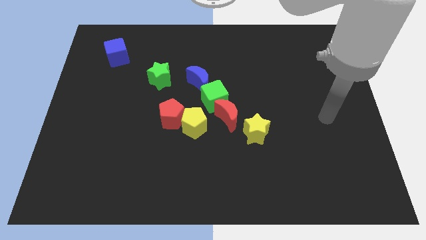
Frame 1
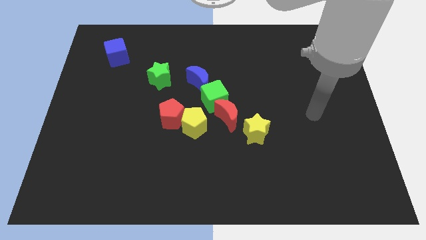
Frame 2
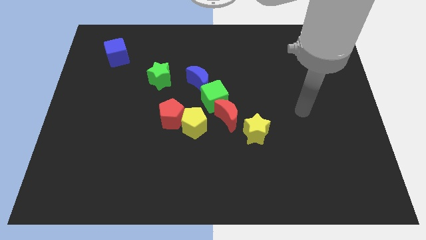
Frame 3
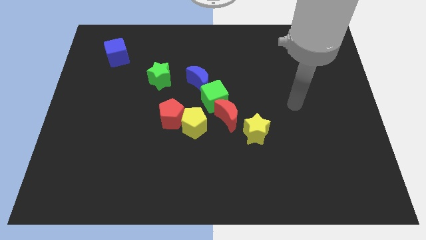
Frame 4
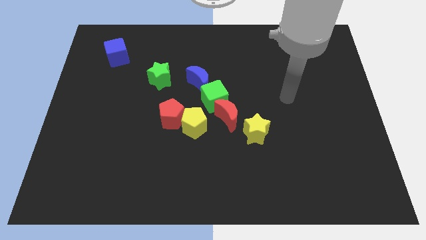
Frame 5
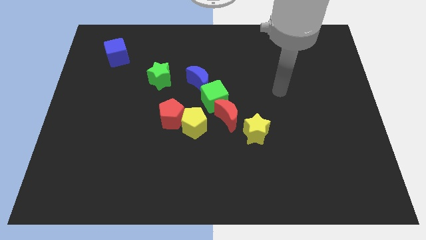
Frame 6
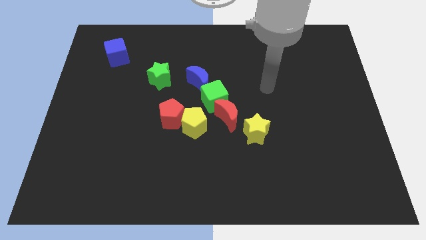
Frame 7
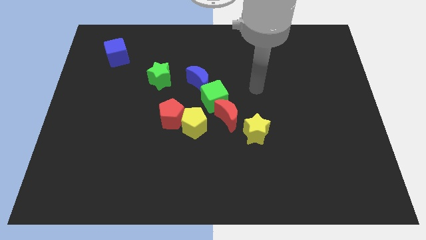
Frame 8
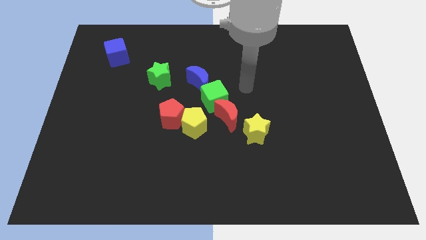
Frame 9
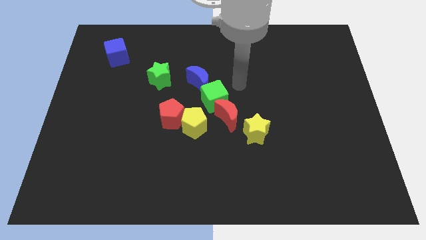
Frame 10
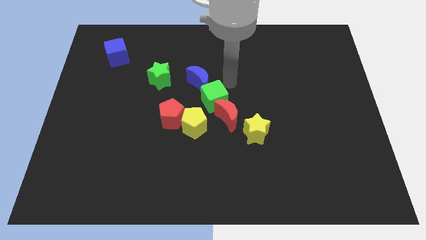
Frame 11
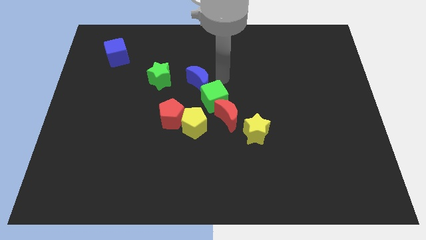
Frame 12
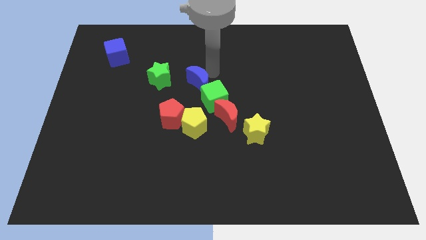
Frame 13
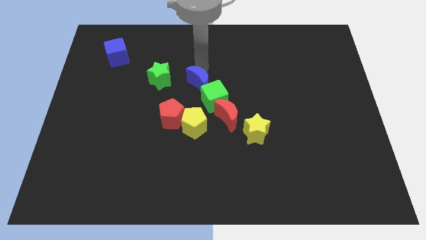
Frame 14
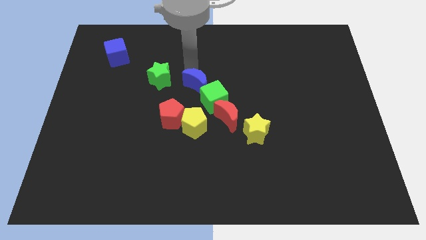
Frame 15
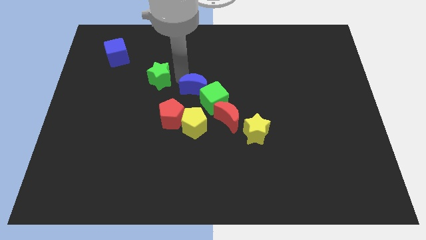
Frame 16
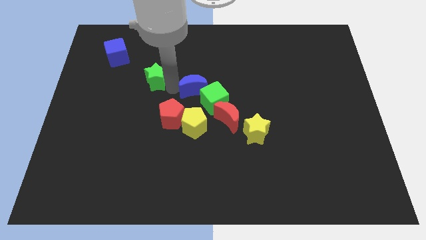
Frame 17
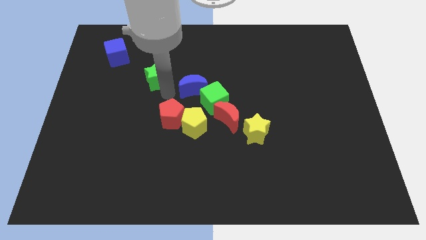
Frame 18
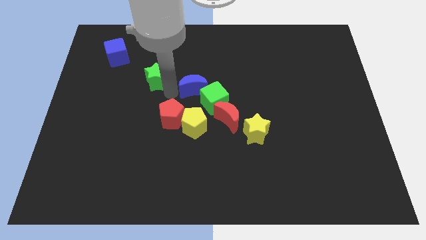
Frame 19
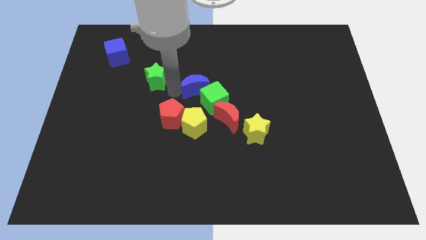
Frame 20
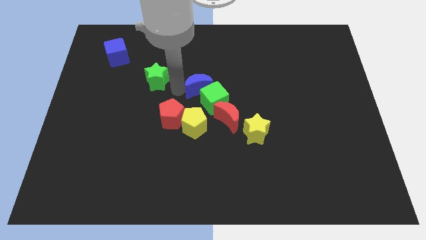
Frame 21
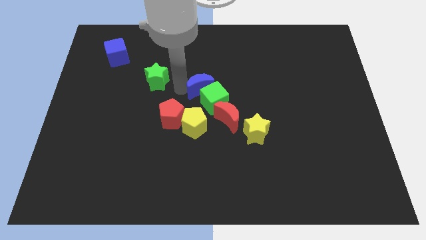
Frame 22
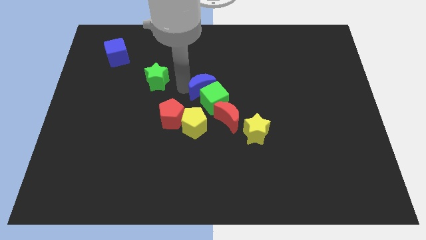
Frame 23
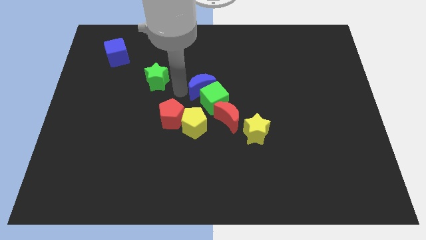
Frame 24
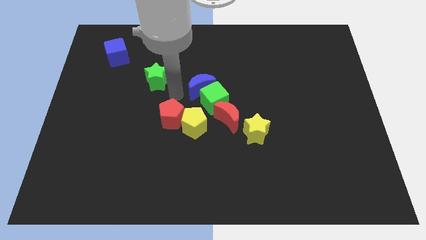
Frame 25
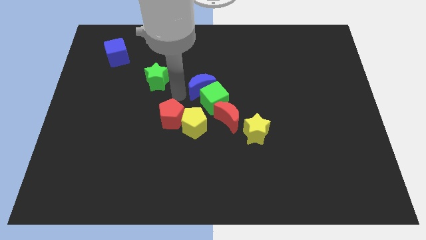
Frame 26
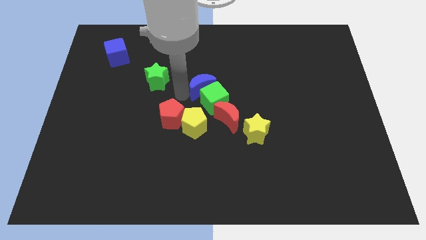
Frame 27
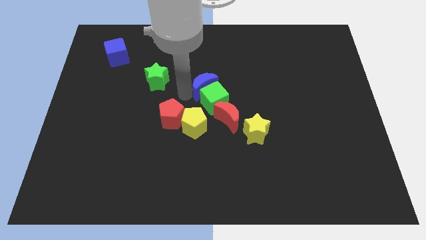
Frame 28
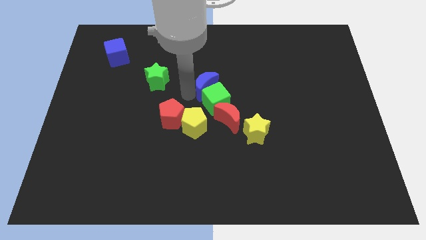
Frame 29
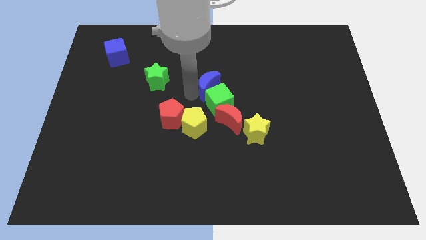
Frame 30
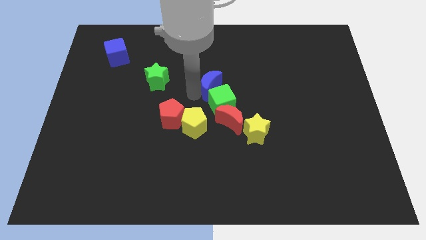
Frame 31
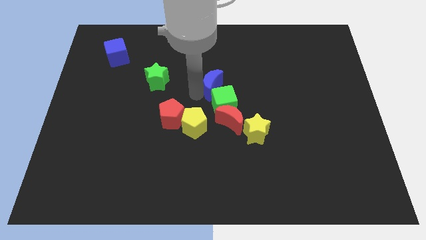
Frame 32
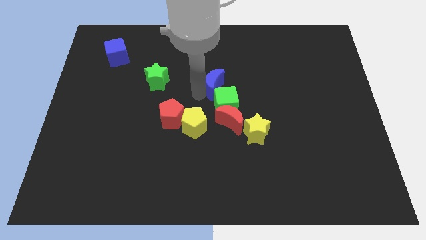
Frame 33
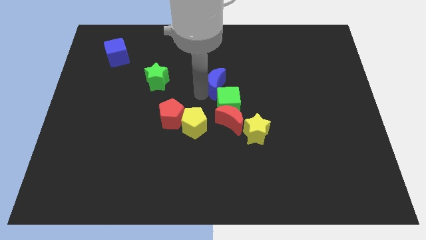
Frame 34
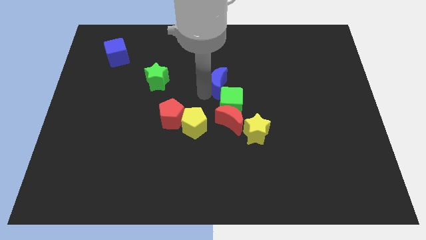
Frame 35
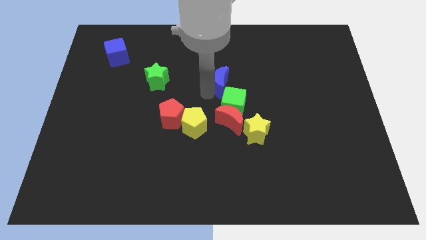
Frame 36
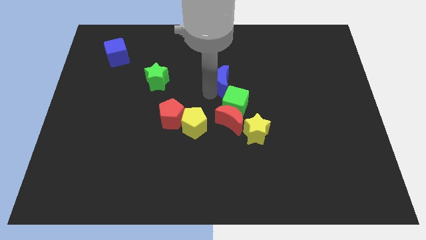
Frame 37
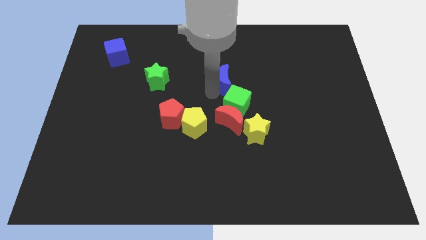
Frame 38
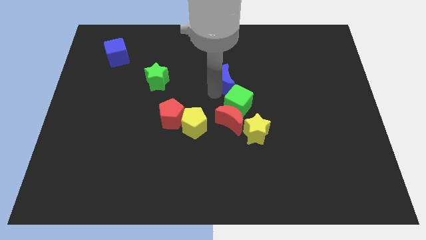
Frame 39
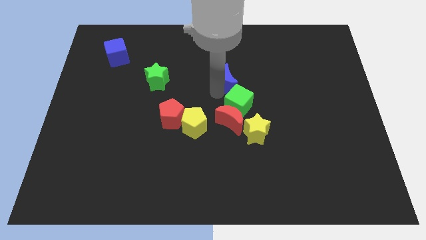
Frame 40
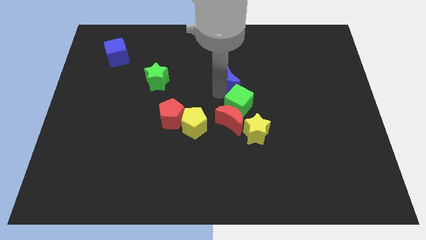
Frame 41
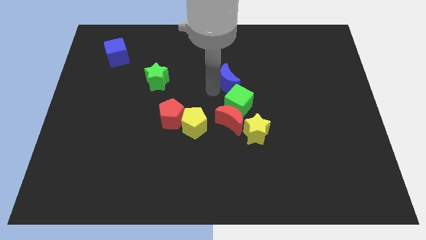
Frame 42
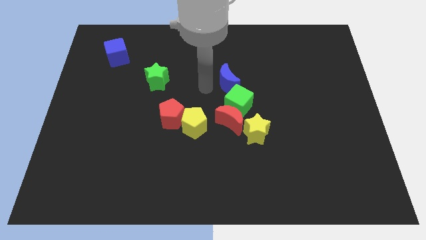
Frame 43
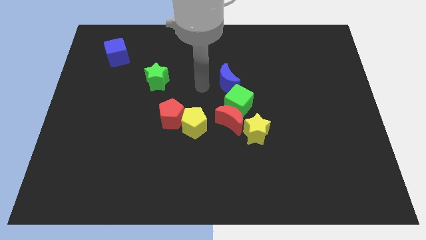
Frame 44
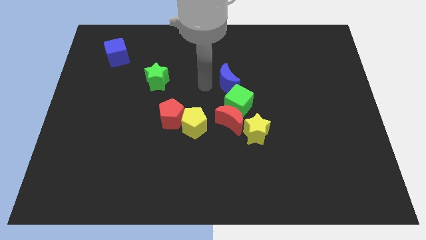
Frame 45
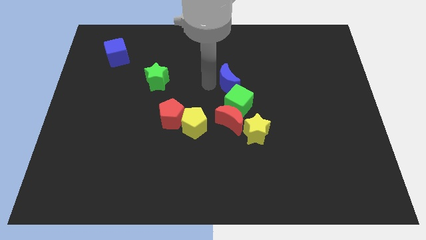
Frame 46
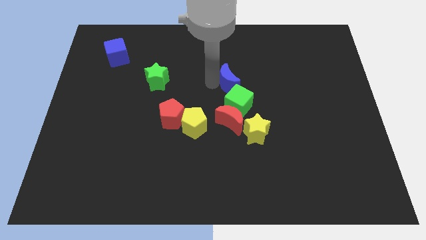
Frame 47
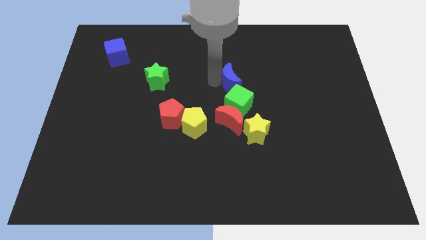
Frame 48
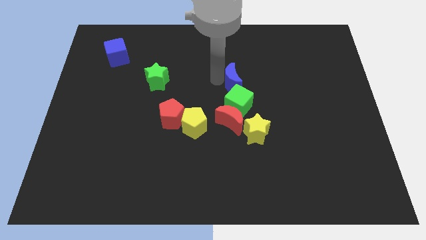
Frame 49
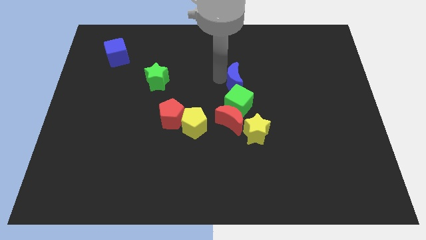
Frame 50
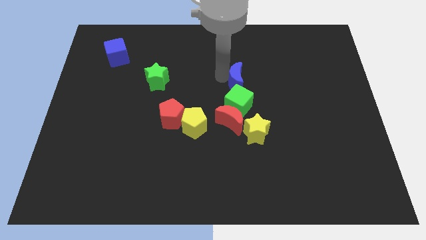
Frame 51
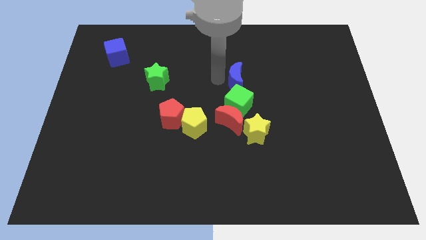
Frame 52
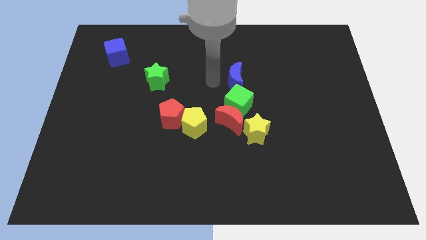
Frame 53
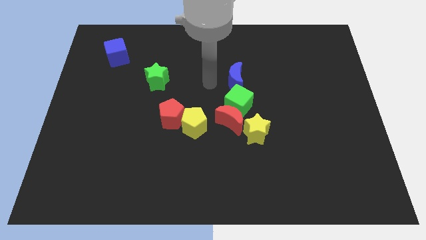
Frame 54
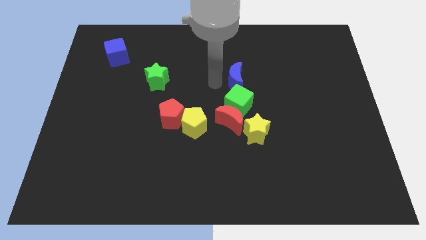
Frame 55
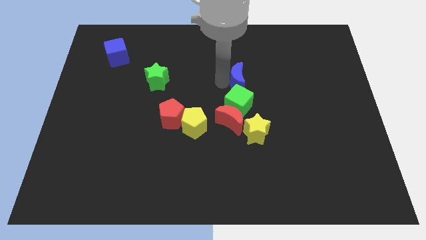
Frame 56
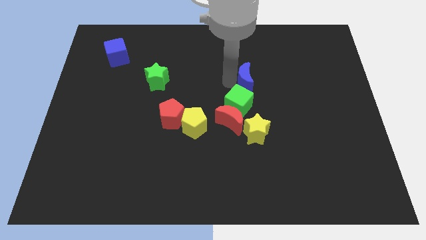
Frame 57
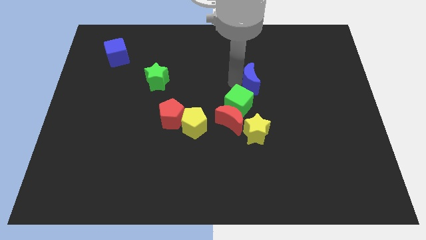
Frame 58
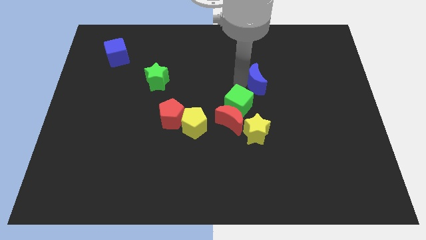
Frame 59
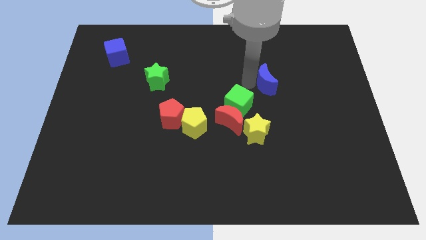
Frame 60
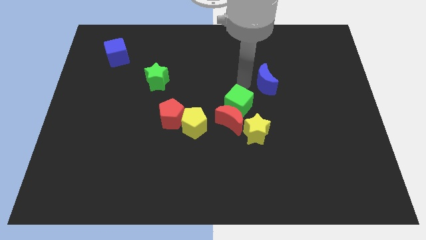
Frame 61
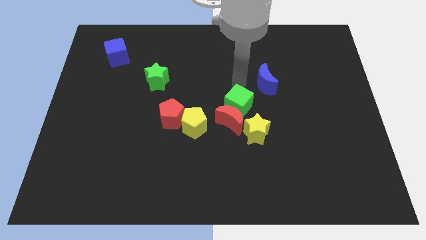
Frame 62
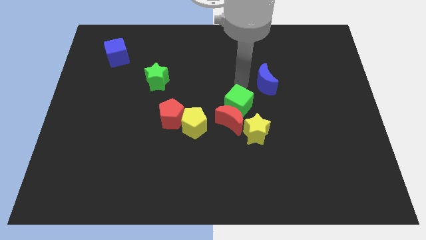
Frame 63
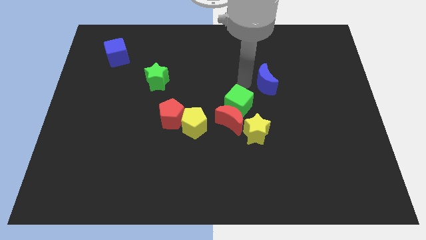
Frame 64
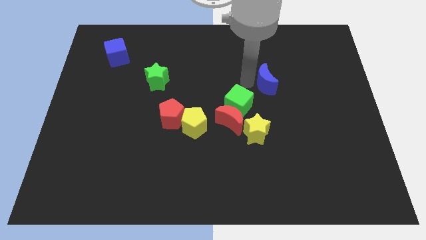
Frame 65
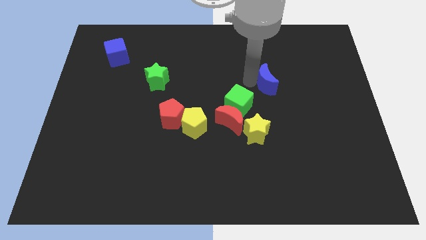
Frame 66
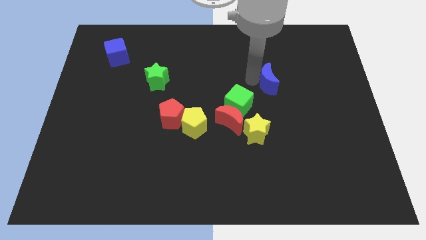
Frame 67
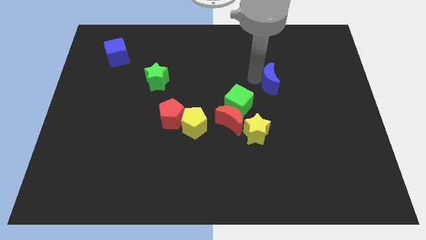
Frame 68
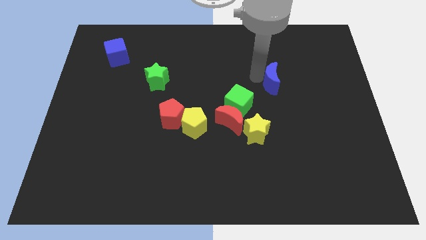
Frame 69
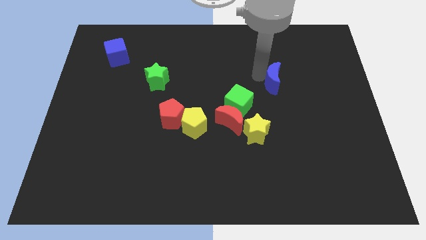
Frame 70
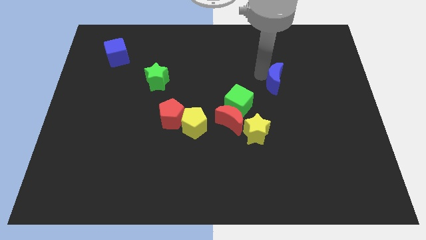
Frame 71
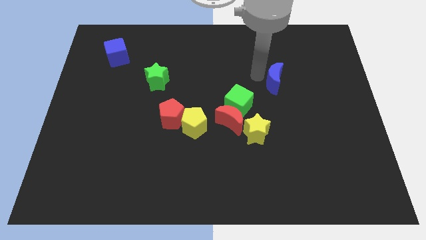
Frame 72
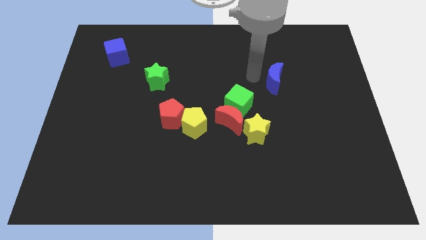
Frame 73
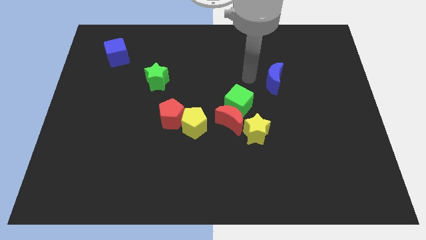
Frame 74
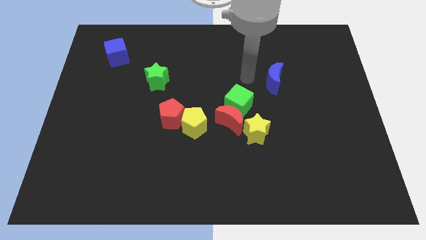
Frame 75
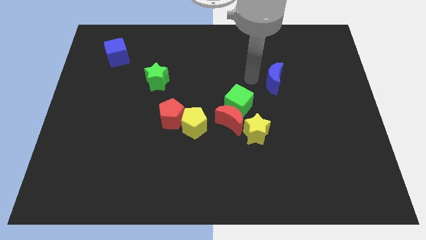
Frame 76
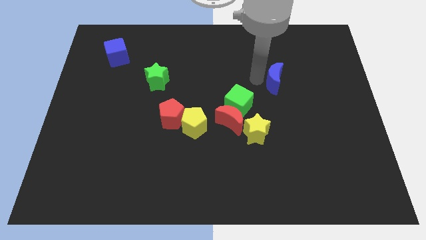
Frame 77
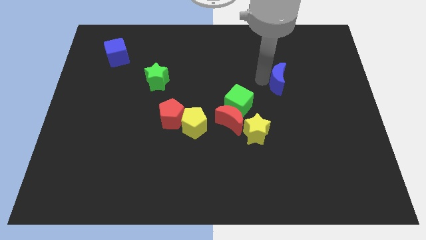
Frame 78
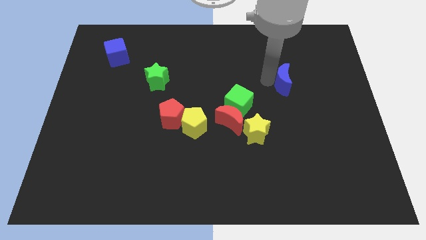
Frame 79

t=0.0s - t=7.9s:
move the blue moon to the right

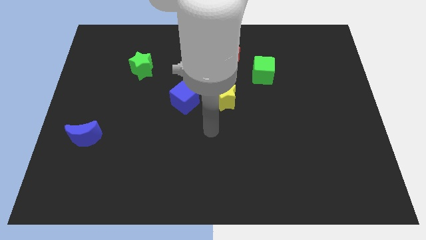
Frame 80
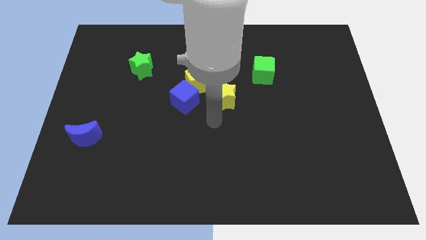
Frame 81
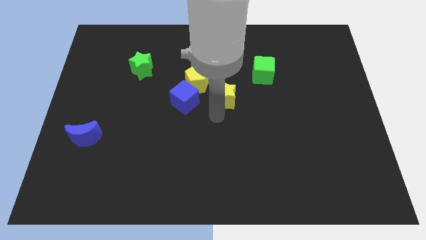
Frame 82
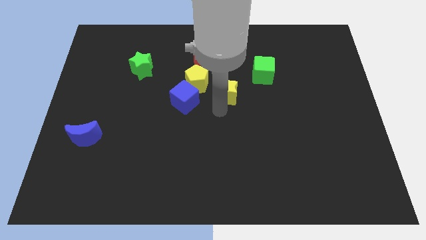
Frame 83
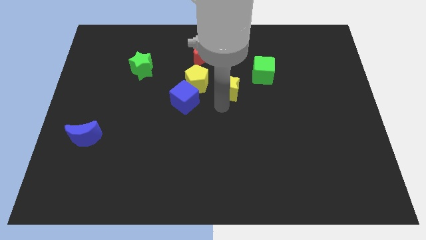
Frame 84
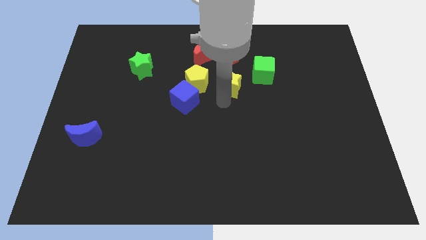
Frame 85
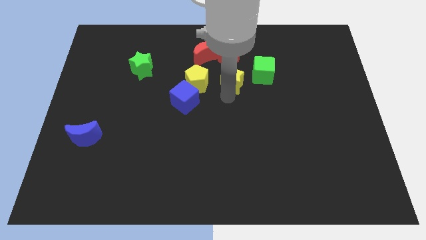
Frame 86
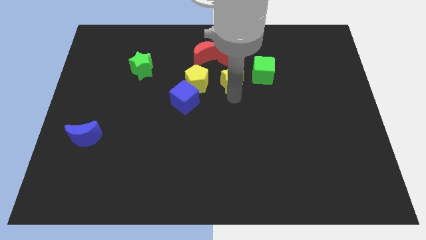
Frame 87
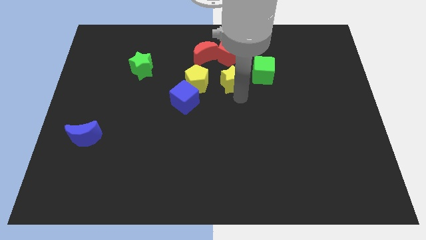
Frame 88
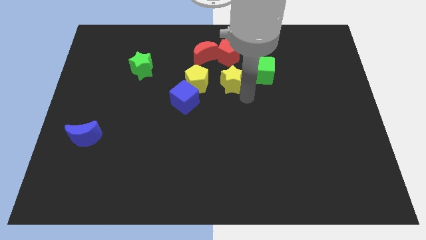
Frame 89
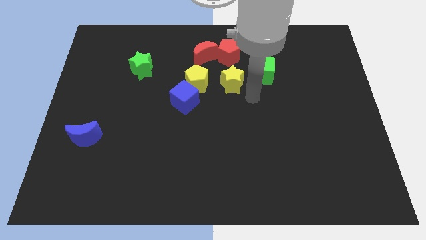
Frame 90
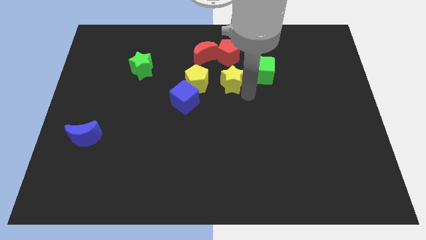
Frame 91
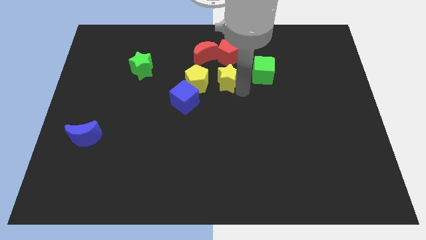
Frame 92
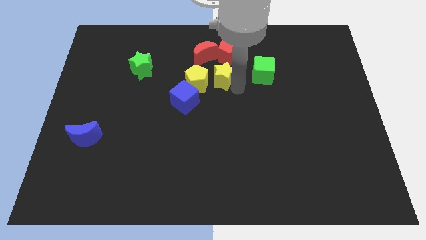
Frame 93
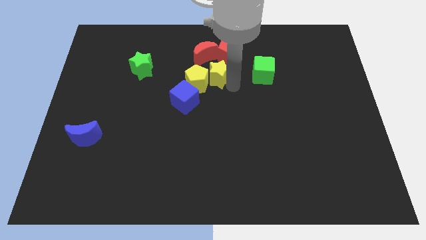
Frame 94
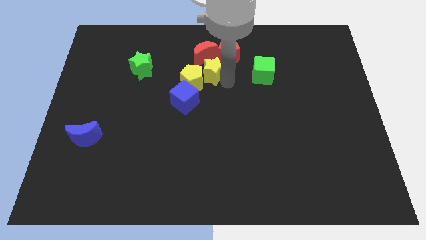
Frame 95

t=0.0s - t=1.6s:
move the yellow star up and left diagonally a bit
